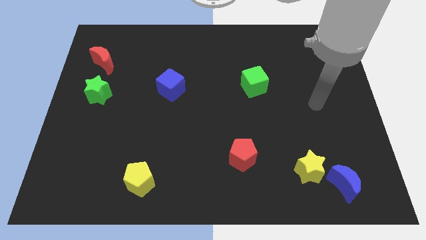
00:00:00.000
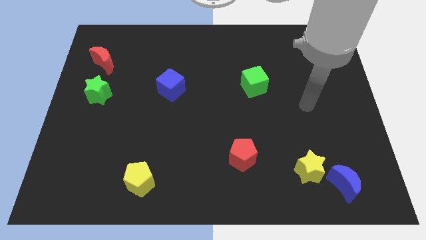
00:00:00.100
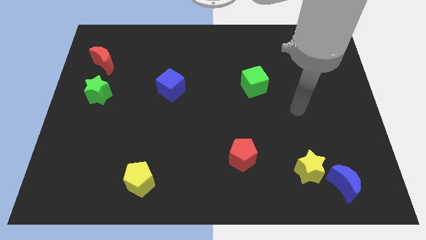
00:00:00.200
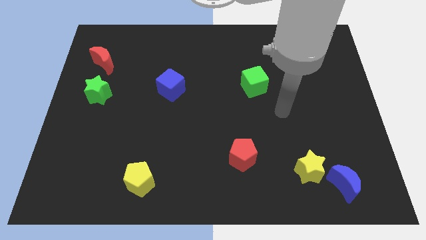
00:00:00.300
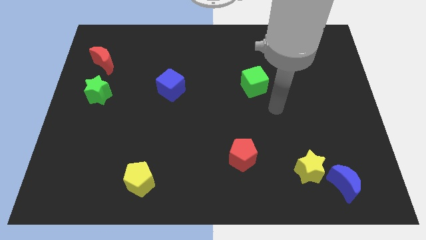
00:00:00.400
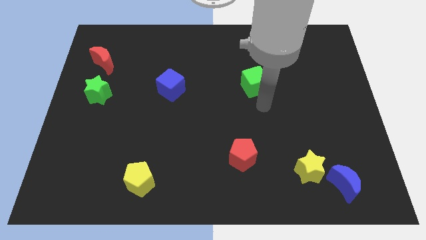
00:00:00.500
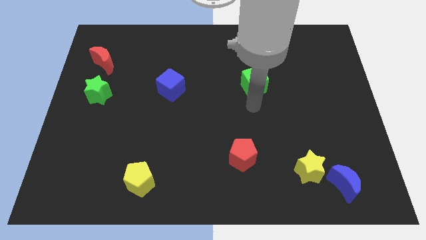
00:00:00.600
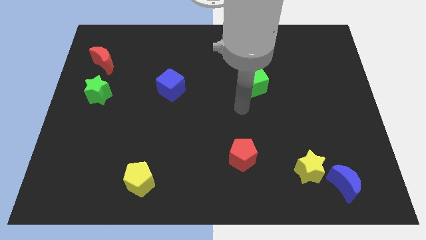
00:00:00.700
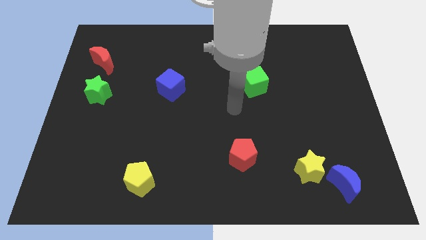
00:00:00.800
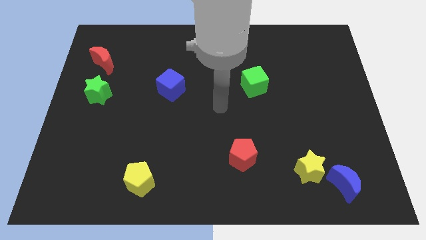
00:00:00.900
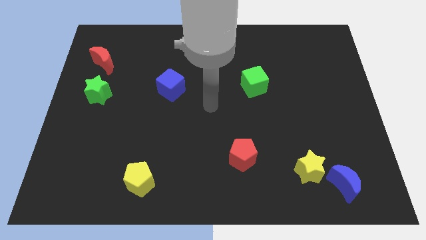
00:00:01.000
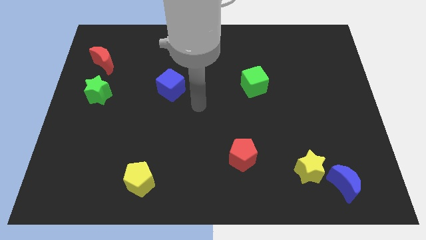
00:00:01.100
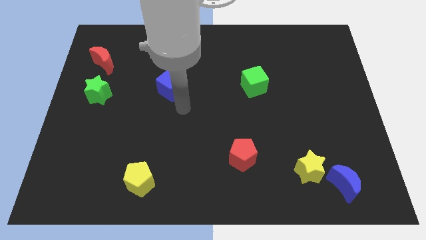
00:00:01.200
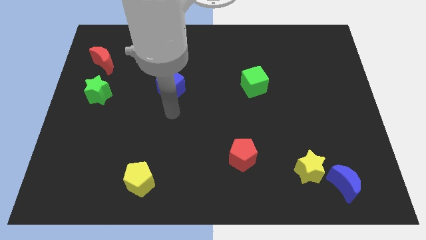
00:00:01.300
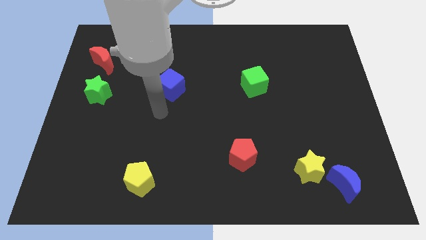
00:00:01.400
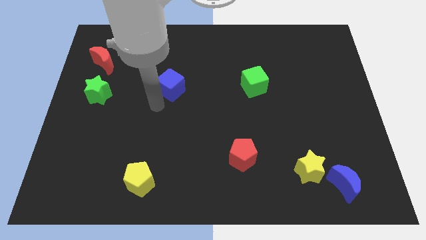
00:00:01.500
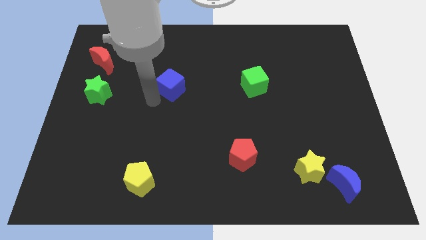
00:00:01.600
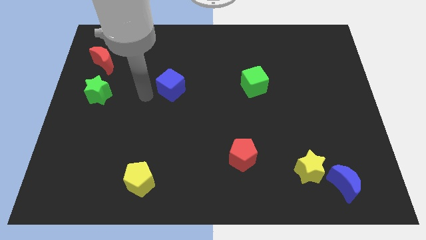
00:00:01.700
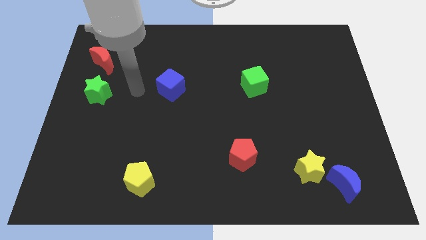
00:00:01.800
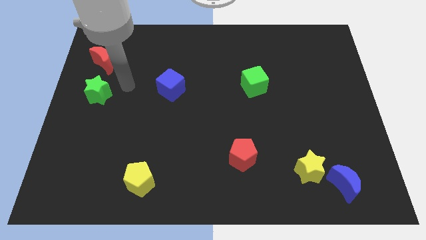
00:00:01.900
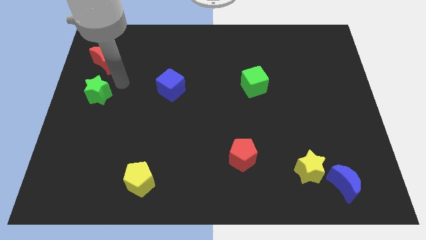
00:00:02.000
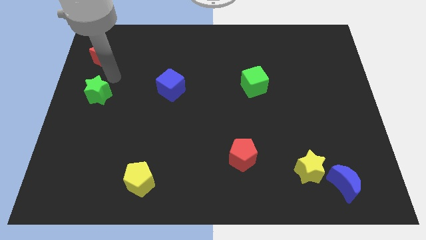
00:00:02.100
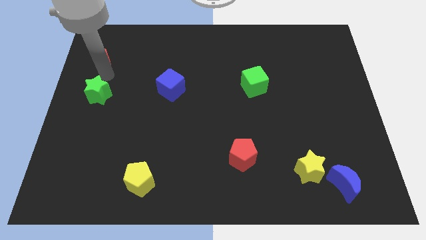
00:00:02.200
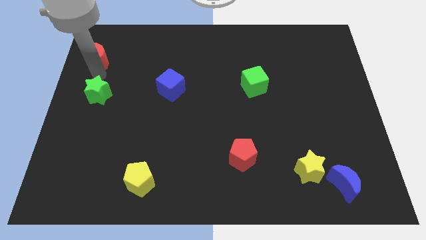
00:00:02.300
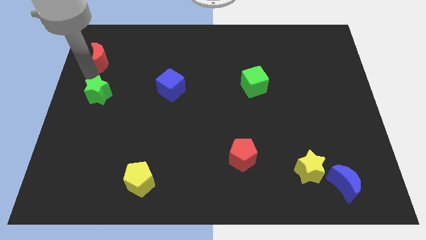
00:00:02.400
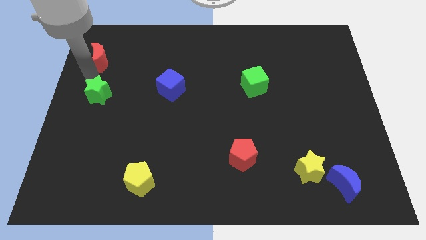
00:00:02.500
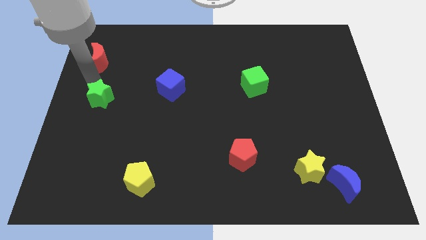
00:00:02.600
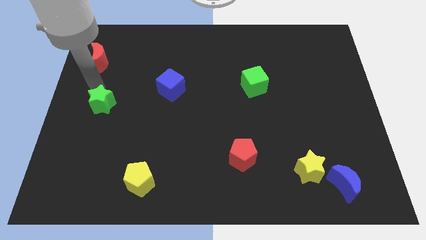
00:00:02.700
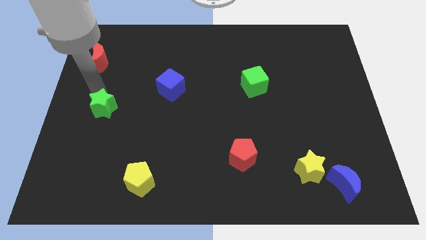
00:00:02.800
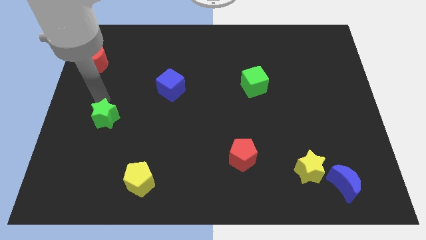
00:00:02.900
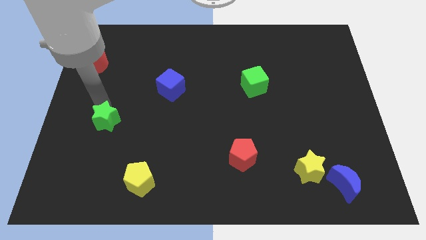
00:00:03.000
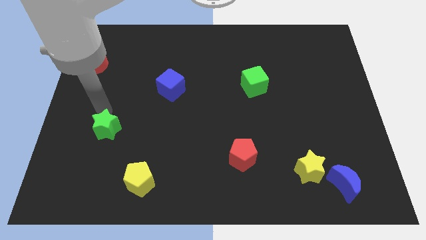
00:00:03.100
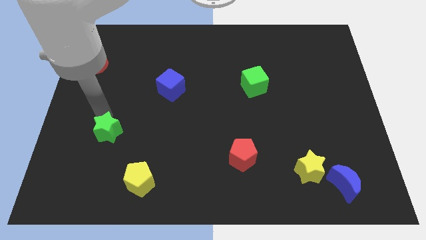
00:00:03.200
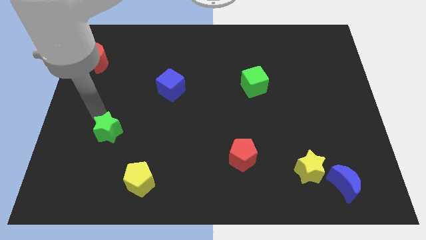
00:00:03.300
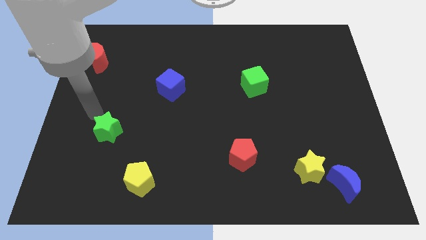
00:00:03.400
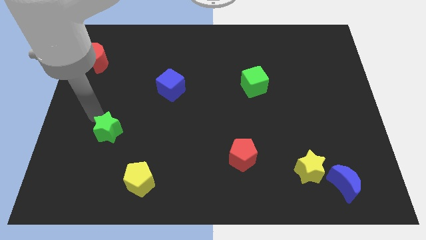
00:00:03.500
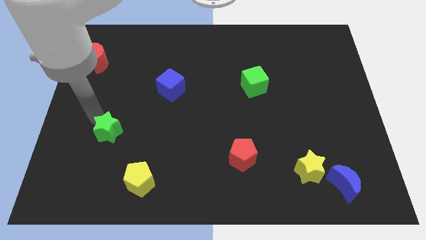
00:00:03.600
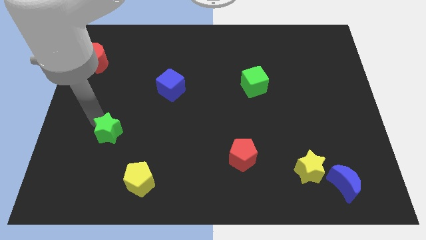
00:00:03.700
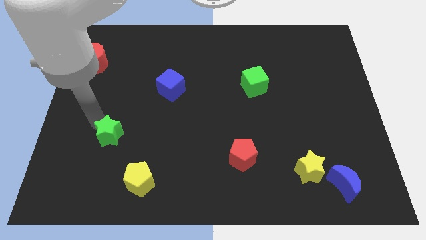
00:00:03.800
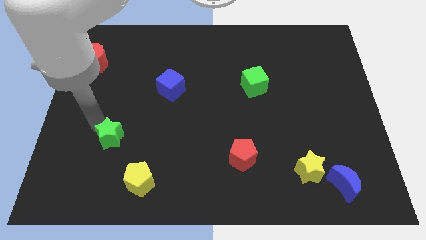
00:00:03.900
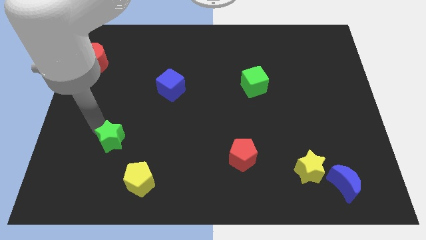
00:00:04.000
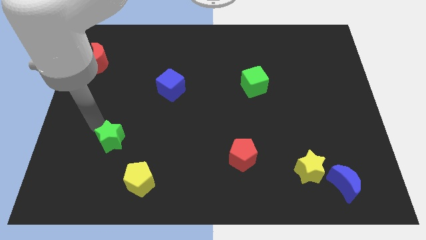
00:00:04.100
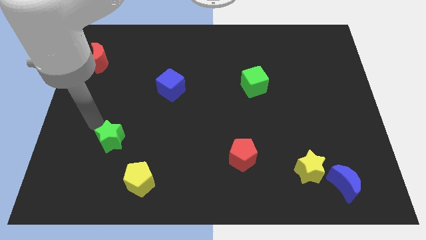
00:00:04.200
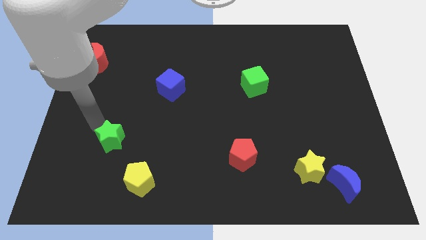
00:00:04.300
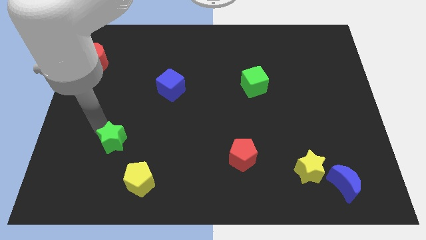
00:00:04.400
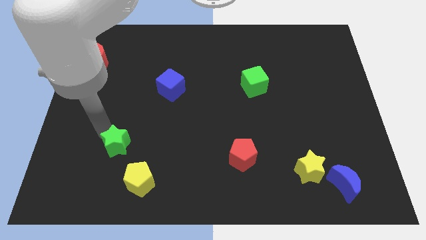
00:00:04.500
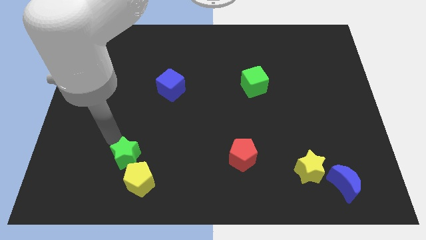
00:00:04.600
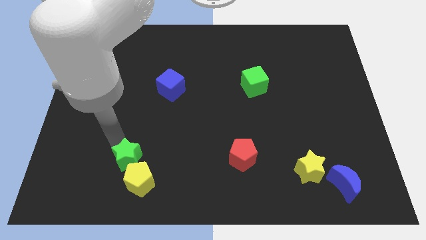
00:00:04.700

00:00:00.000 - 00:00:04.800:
push the green star close to the yellow pentagon

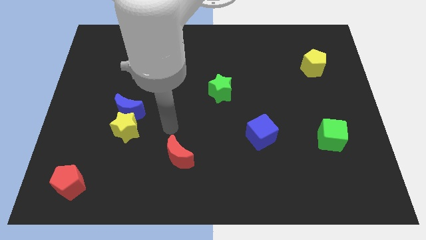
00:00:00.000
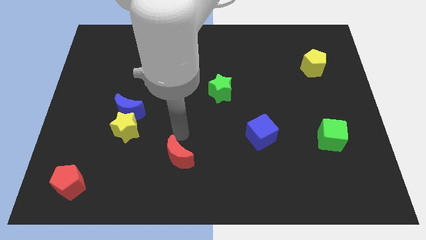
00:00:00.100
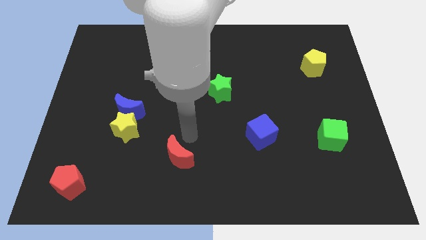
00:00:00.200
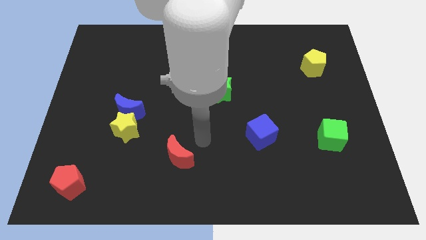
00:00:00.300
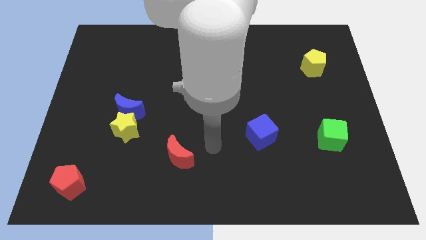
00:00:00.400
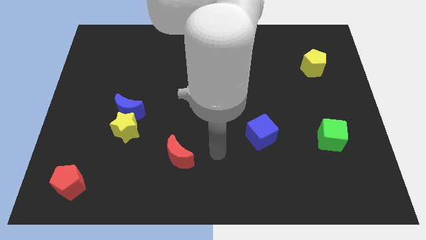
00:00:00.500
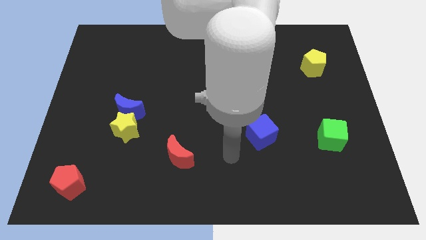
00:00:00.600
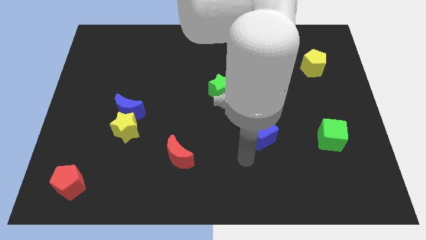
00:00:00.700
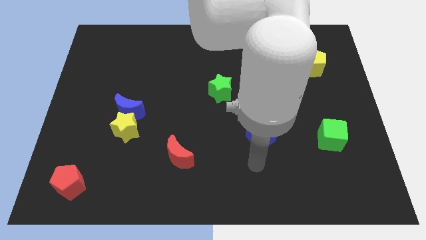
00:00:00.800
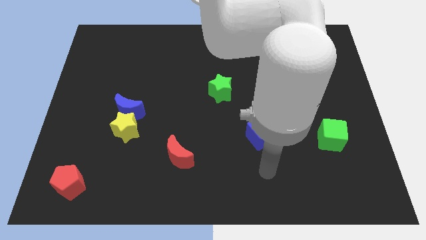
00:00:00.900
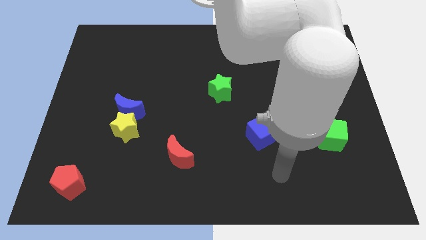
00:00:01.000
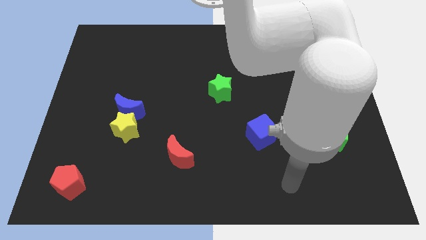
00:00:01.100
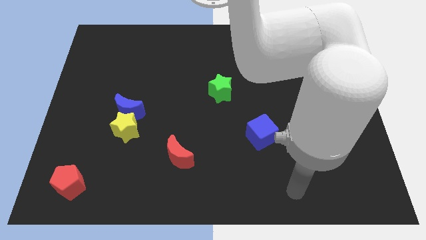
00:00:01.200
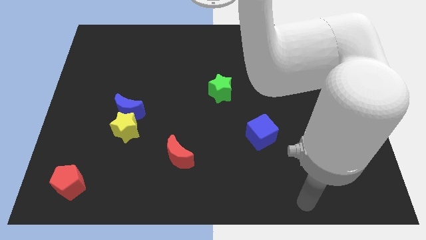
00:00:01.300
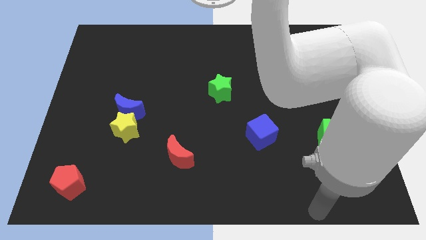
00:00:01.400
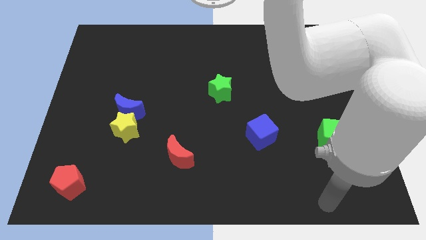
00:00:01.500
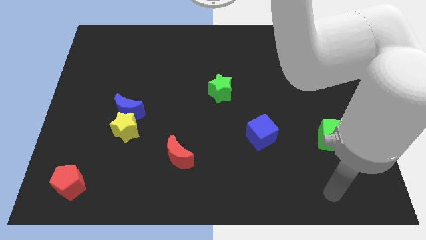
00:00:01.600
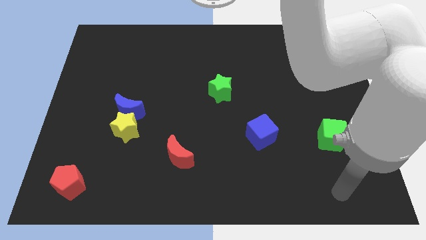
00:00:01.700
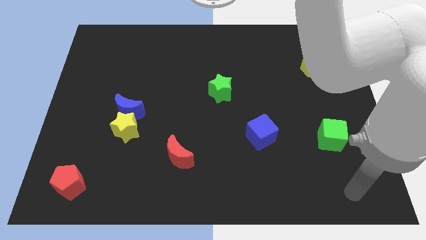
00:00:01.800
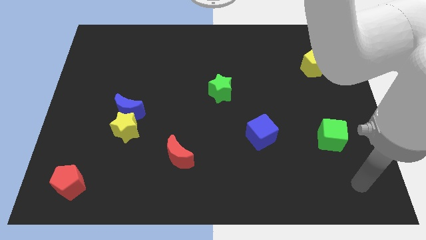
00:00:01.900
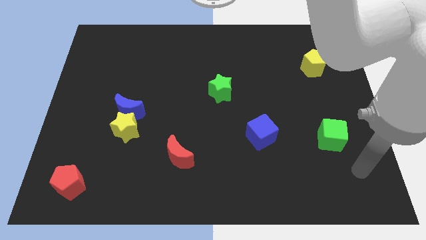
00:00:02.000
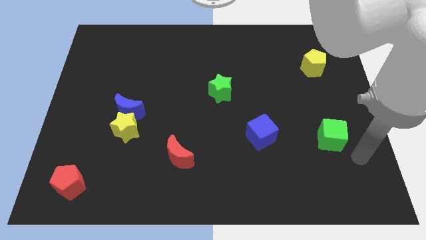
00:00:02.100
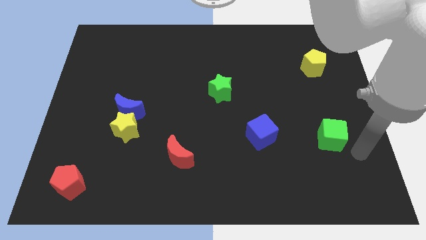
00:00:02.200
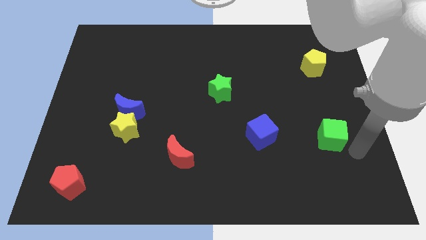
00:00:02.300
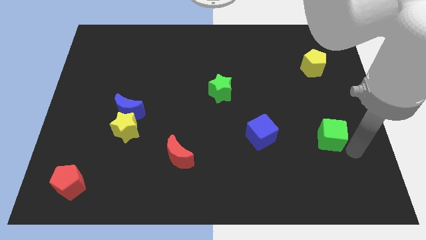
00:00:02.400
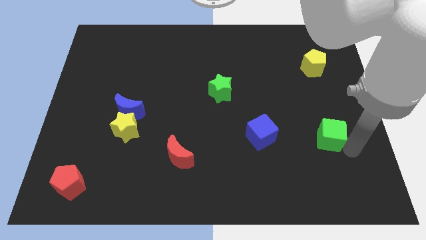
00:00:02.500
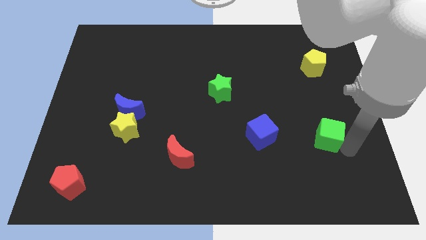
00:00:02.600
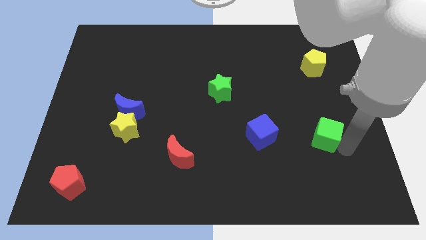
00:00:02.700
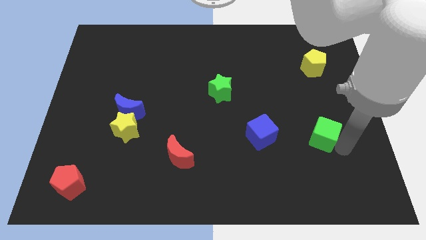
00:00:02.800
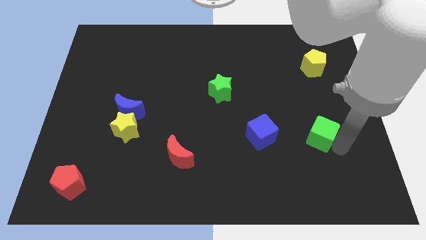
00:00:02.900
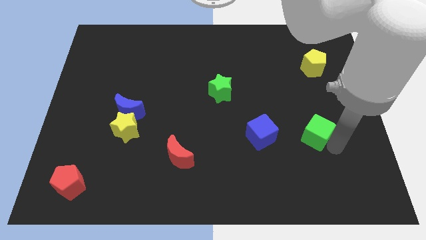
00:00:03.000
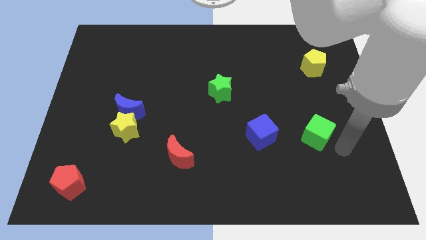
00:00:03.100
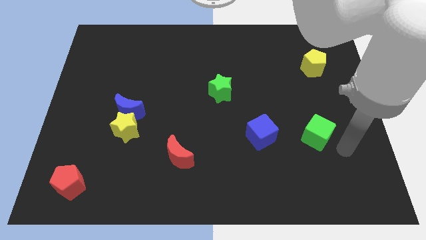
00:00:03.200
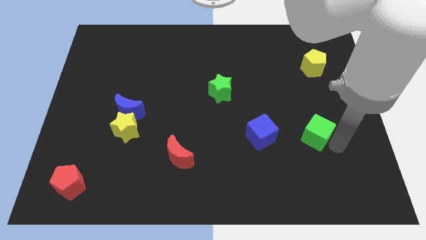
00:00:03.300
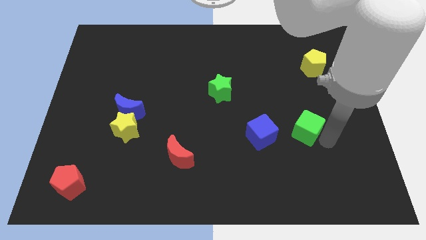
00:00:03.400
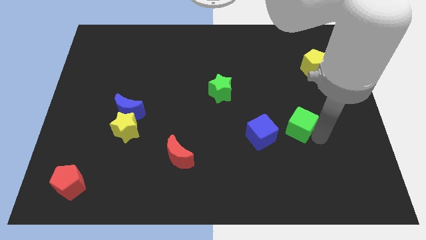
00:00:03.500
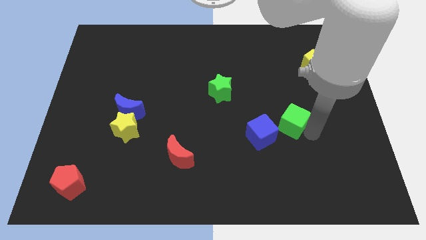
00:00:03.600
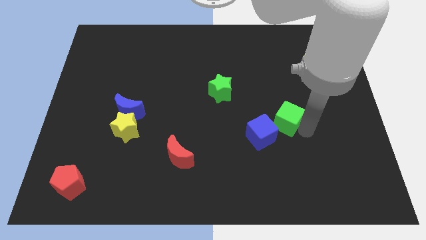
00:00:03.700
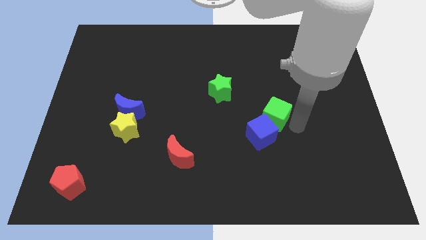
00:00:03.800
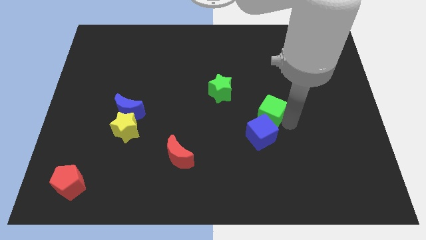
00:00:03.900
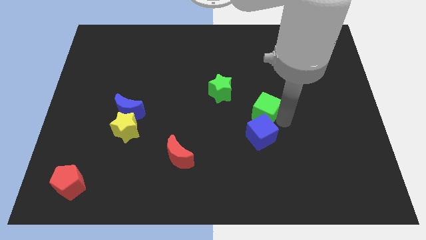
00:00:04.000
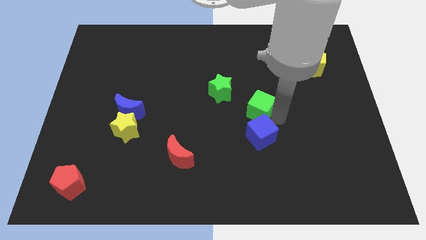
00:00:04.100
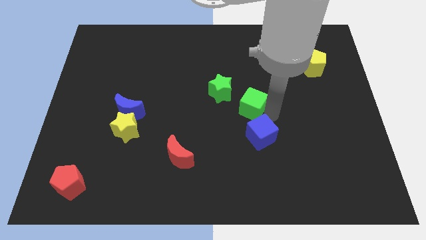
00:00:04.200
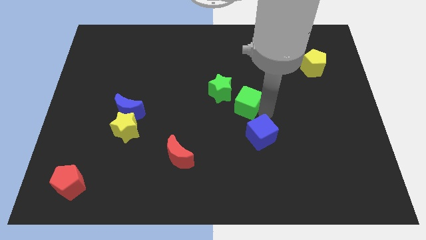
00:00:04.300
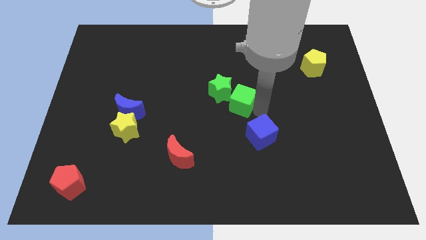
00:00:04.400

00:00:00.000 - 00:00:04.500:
push the green cube towards the green star
